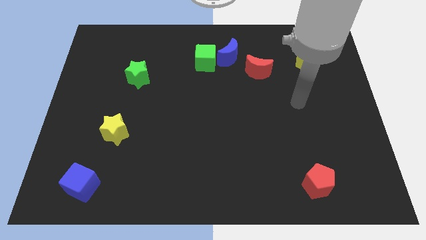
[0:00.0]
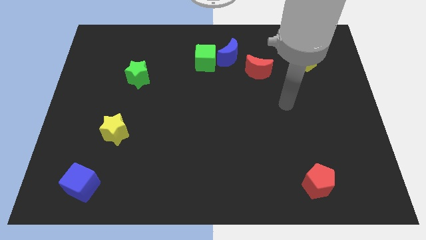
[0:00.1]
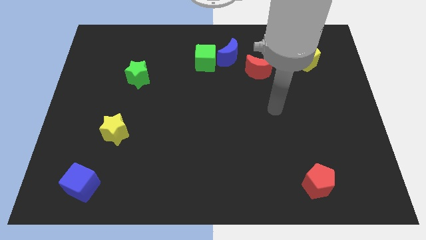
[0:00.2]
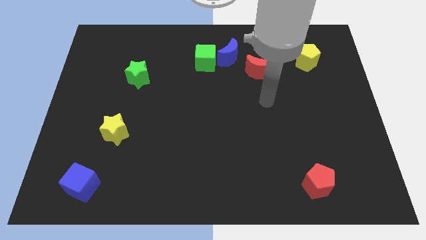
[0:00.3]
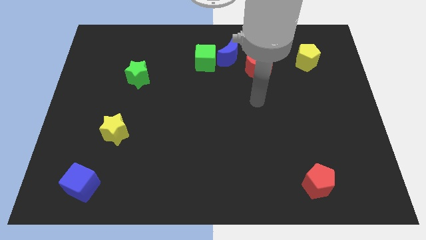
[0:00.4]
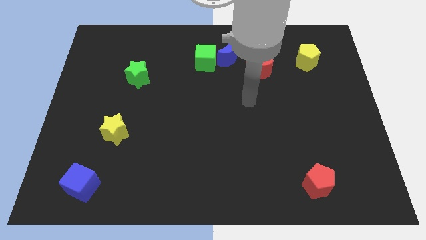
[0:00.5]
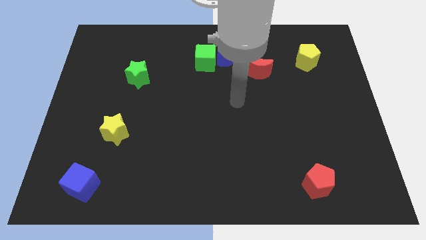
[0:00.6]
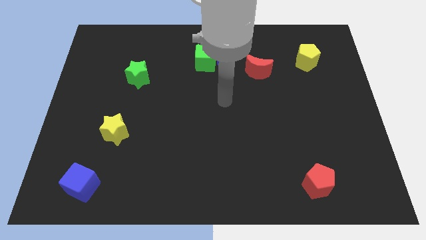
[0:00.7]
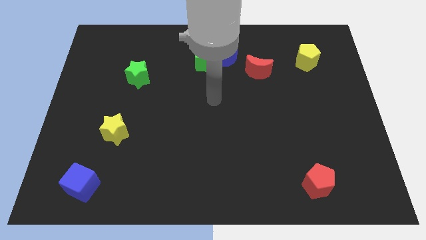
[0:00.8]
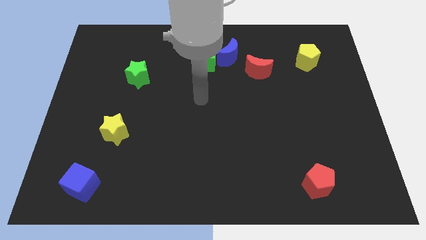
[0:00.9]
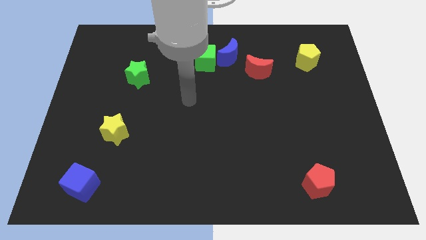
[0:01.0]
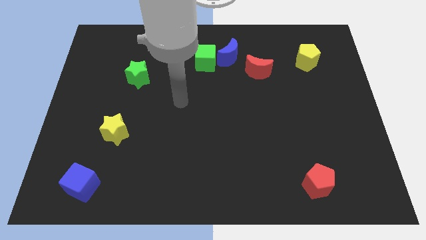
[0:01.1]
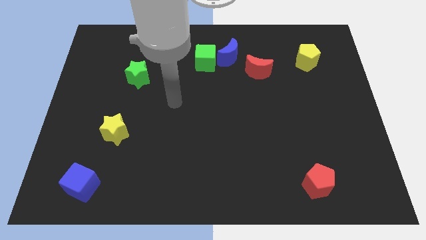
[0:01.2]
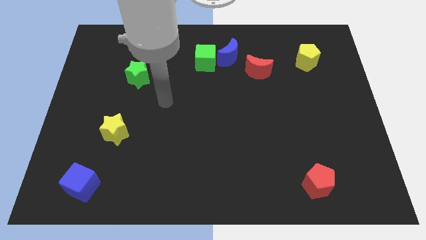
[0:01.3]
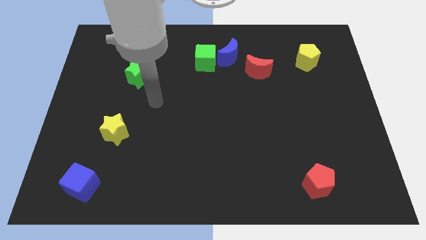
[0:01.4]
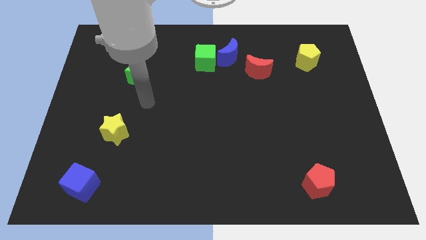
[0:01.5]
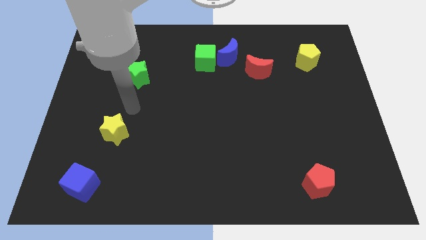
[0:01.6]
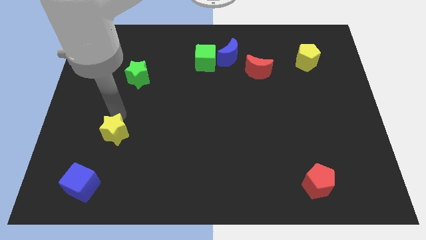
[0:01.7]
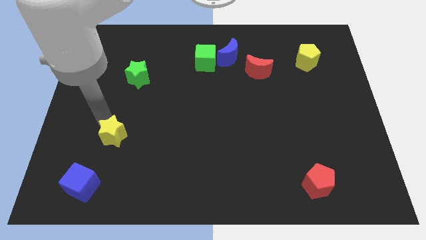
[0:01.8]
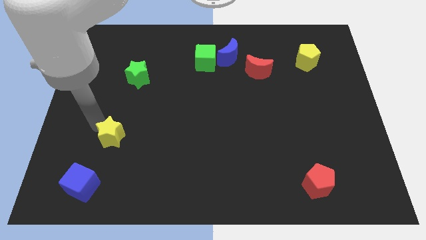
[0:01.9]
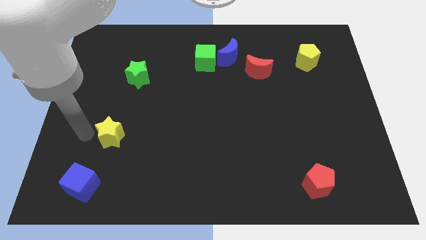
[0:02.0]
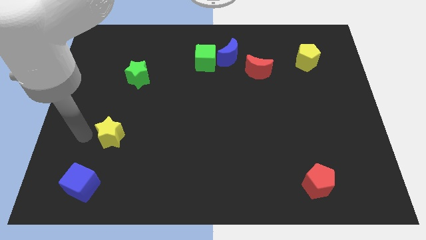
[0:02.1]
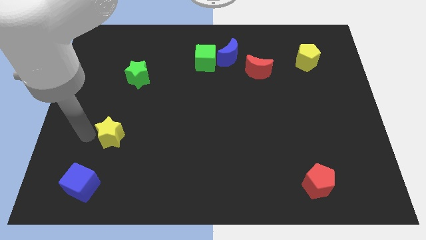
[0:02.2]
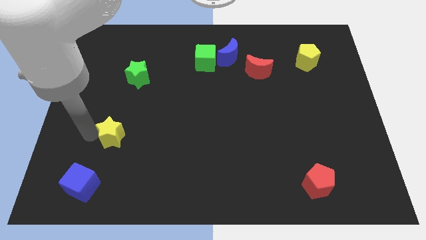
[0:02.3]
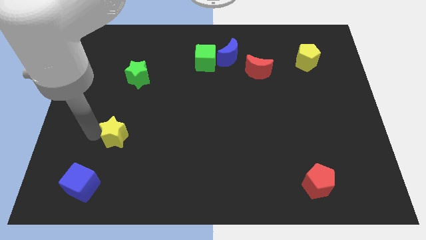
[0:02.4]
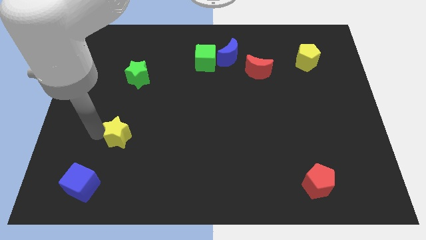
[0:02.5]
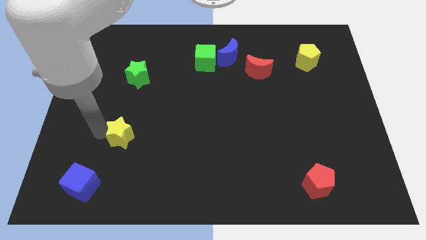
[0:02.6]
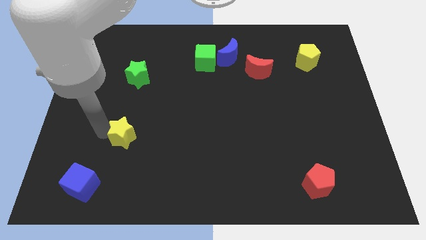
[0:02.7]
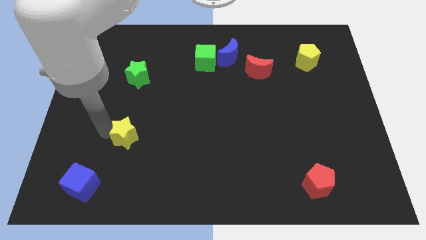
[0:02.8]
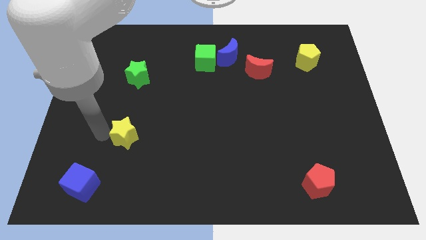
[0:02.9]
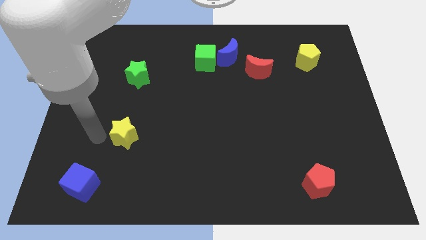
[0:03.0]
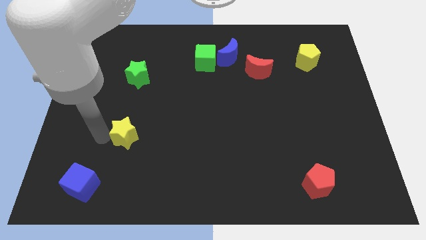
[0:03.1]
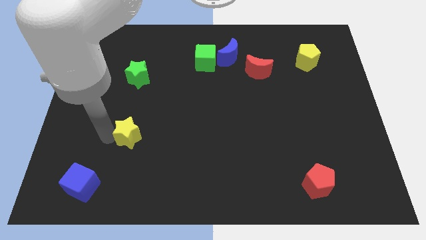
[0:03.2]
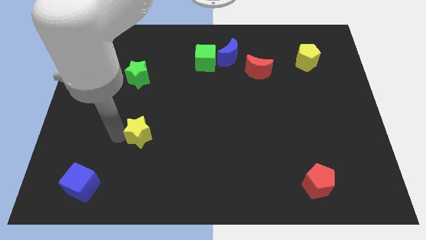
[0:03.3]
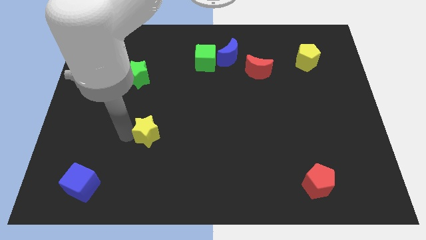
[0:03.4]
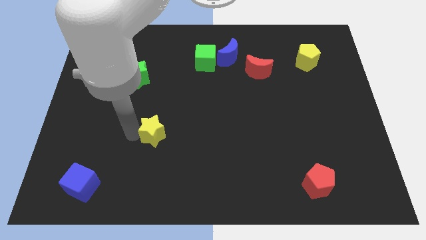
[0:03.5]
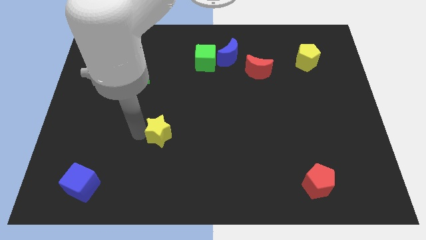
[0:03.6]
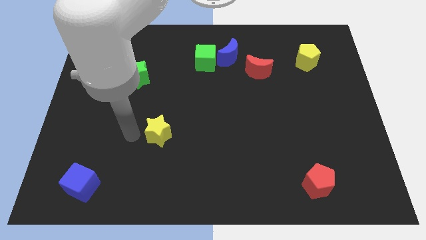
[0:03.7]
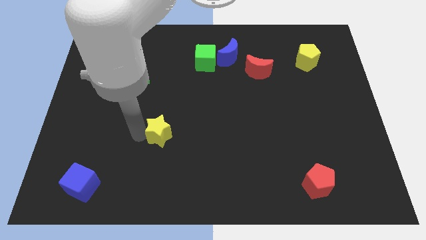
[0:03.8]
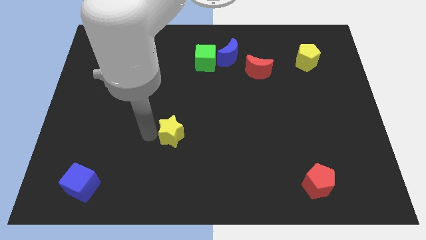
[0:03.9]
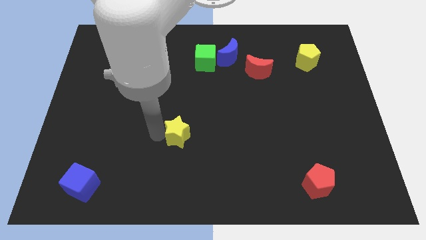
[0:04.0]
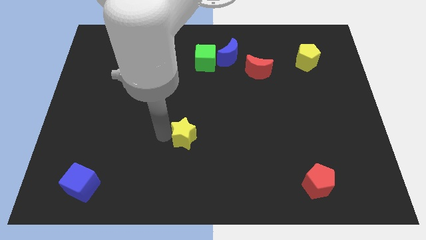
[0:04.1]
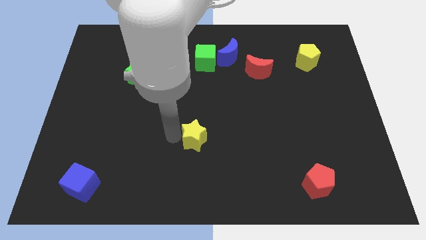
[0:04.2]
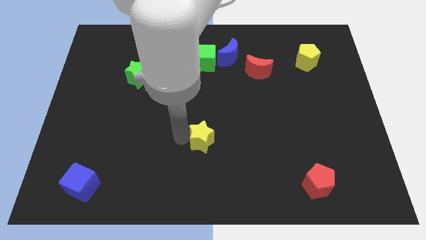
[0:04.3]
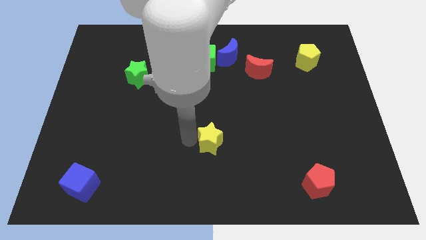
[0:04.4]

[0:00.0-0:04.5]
move the yellow star right

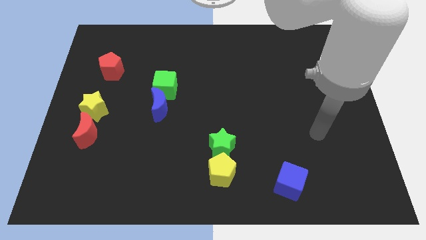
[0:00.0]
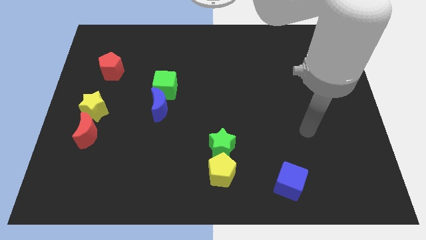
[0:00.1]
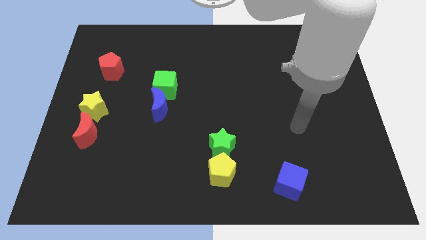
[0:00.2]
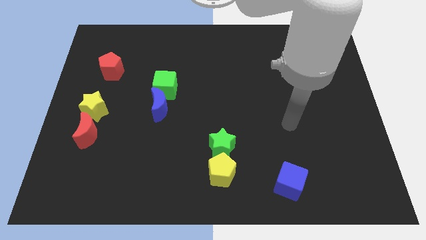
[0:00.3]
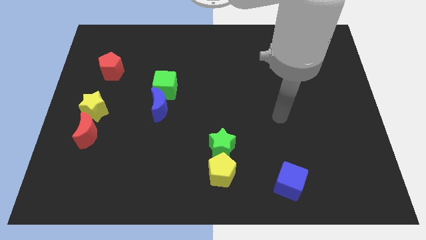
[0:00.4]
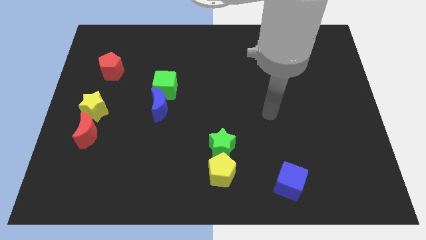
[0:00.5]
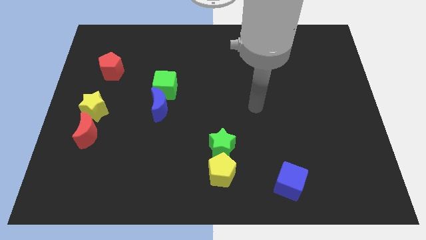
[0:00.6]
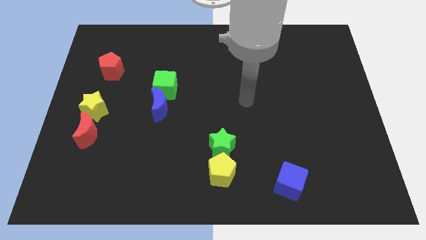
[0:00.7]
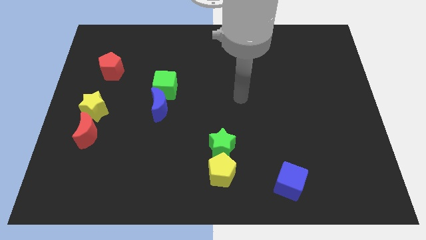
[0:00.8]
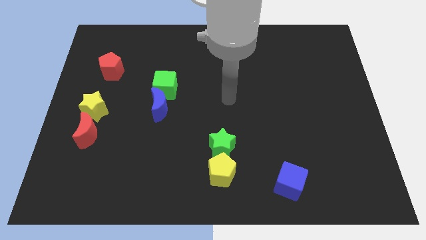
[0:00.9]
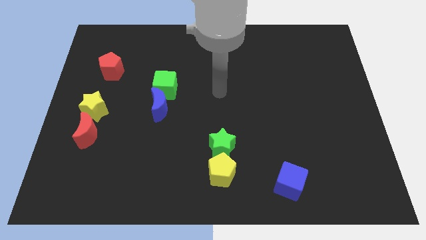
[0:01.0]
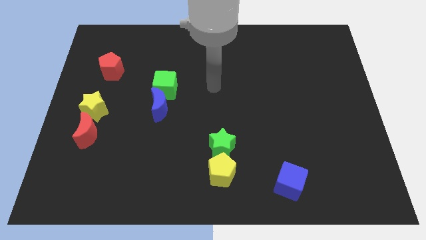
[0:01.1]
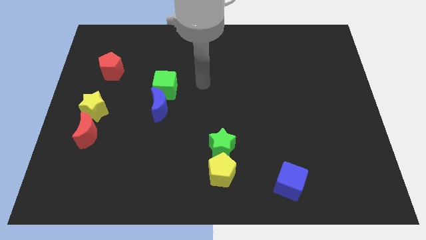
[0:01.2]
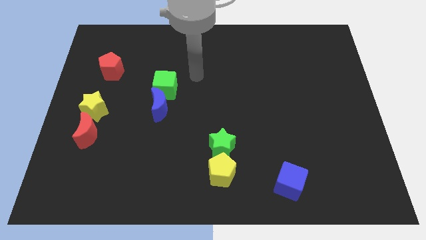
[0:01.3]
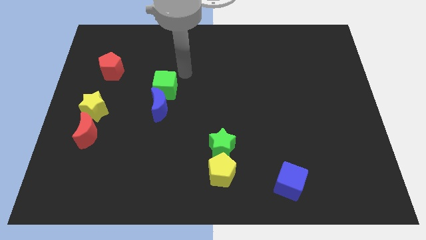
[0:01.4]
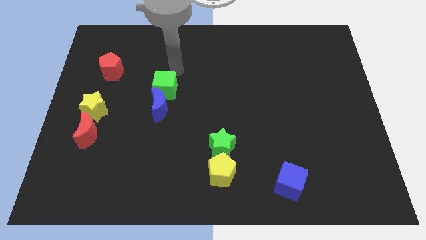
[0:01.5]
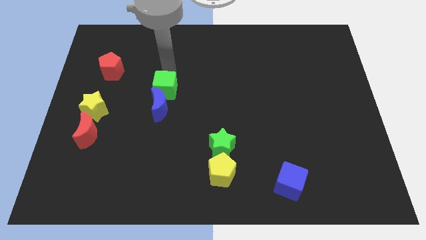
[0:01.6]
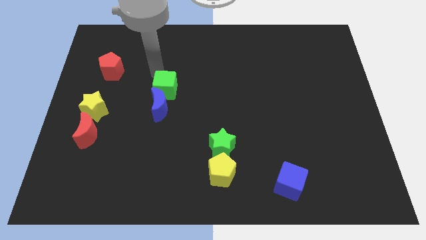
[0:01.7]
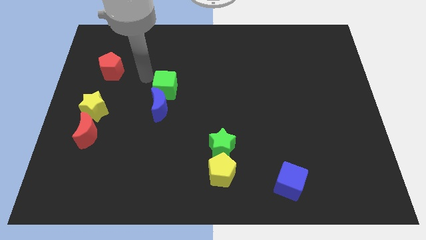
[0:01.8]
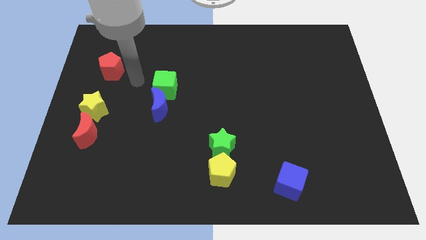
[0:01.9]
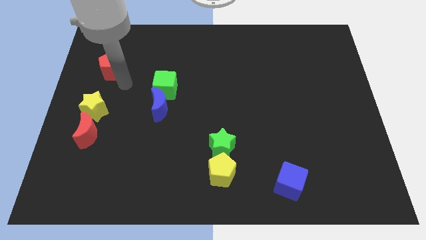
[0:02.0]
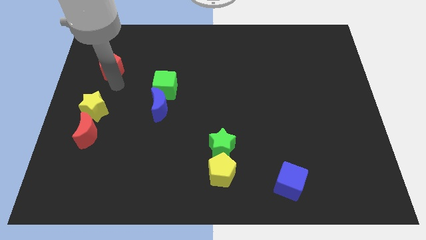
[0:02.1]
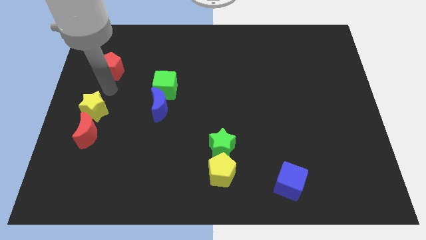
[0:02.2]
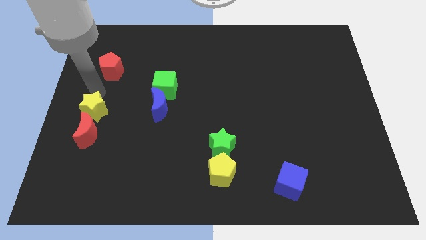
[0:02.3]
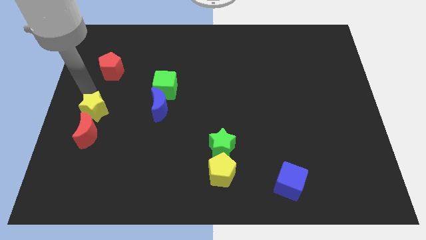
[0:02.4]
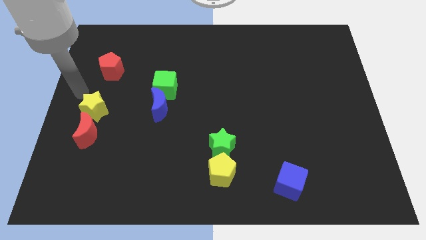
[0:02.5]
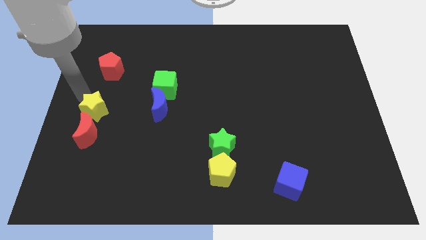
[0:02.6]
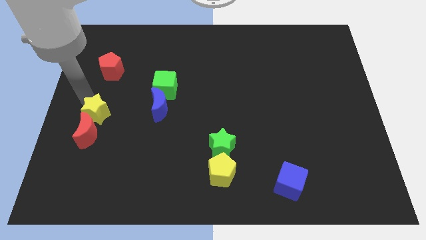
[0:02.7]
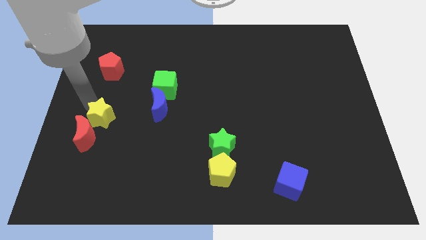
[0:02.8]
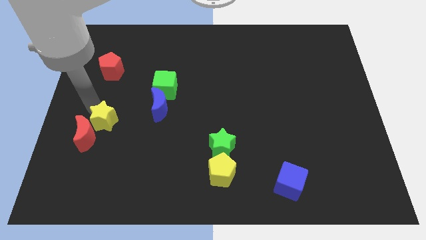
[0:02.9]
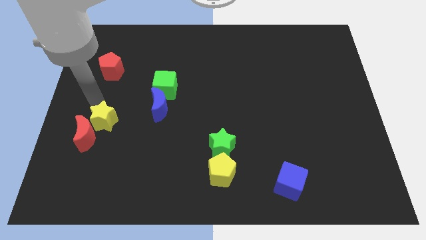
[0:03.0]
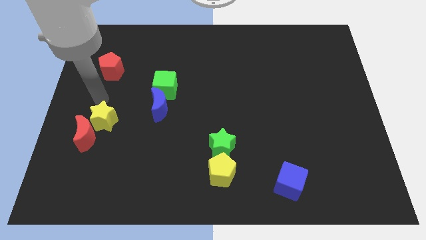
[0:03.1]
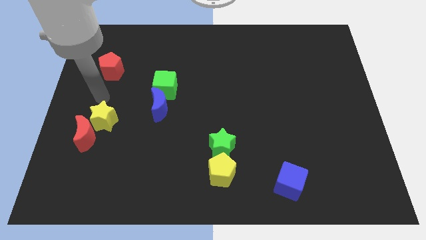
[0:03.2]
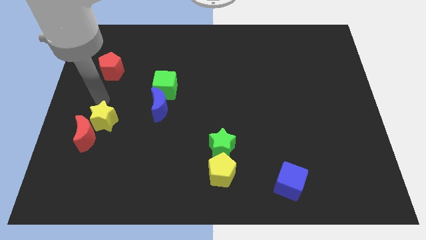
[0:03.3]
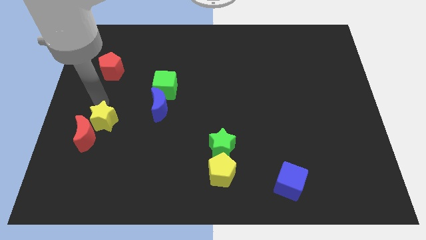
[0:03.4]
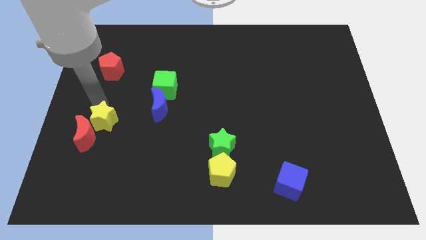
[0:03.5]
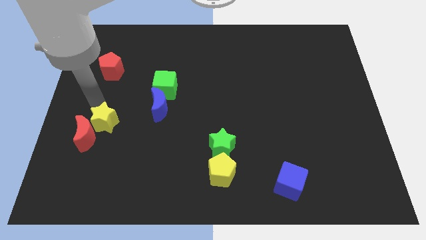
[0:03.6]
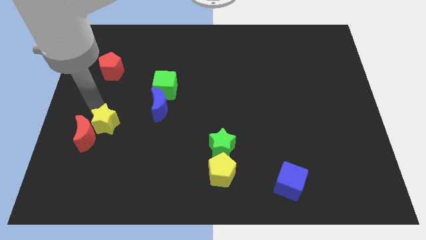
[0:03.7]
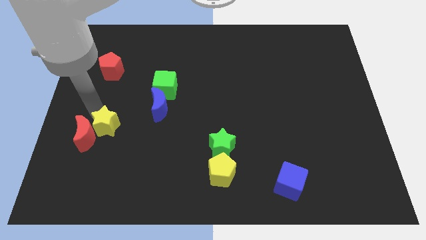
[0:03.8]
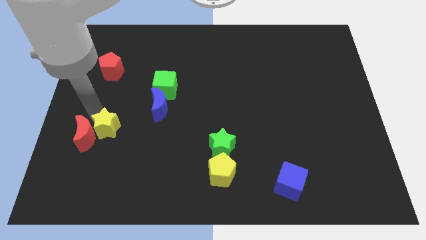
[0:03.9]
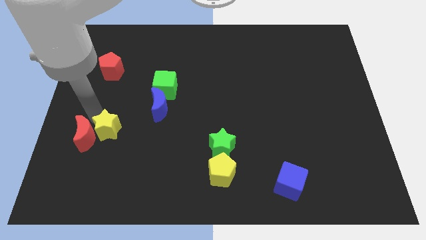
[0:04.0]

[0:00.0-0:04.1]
move the yellow star diagonally down and to the right a bit
